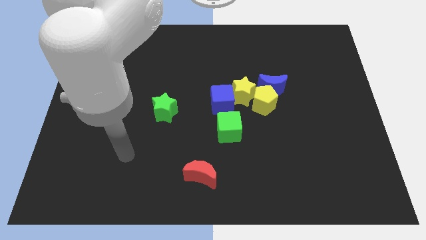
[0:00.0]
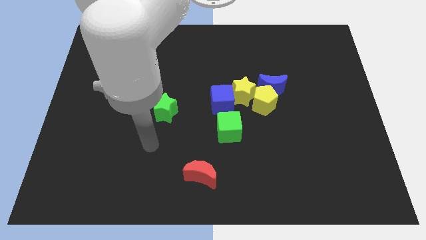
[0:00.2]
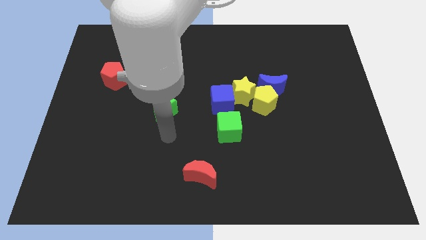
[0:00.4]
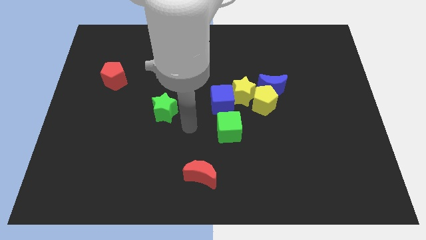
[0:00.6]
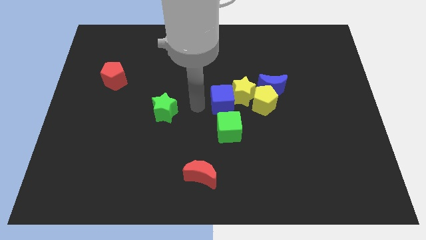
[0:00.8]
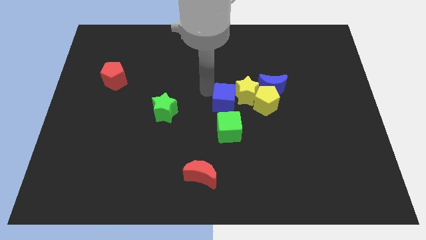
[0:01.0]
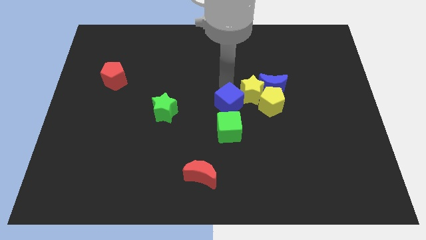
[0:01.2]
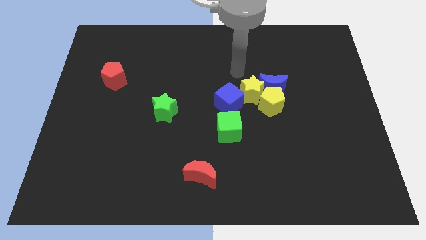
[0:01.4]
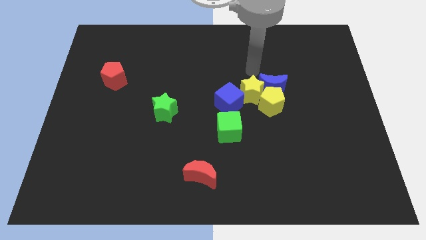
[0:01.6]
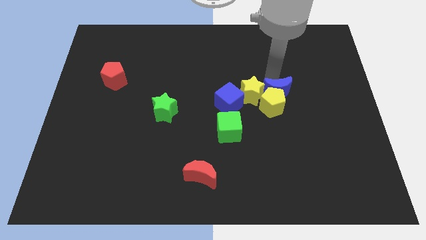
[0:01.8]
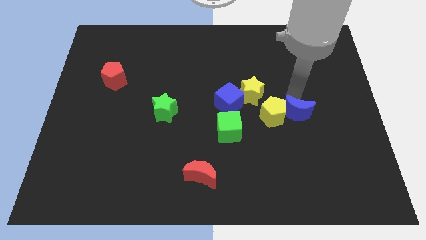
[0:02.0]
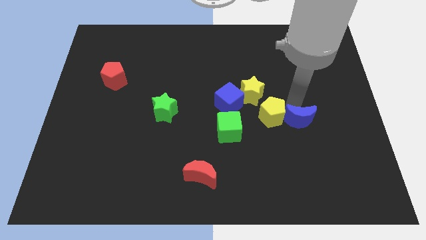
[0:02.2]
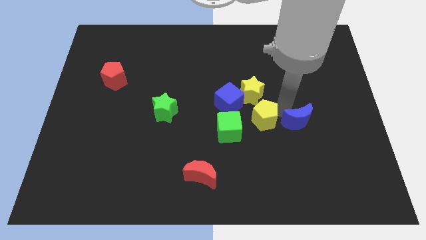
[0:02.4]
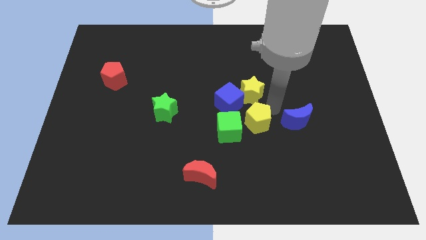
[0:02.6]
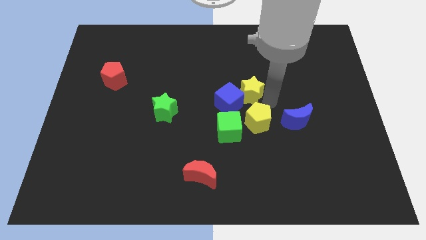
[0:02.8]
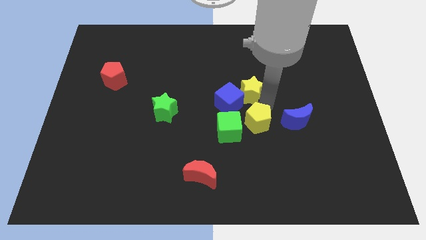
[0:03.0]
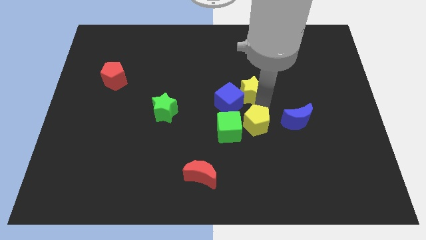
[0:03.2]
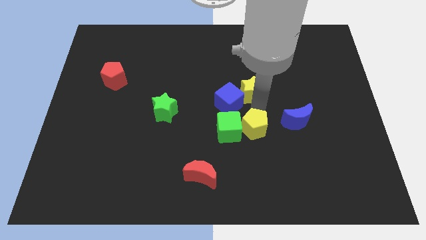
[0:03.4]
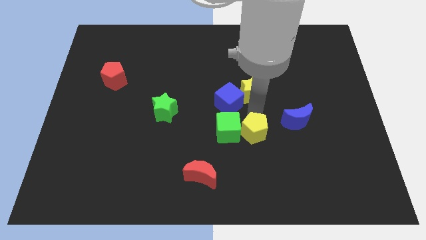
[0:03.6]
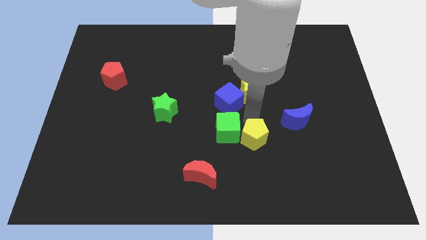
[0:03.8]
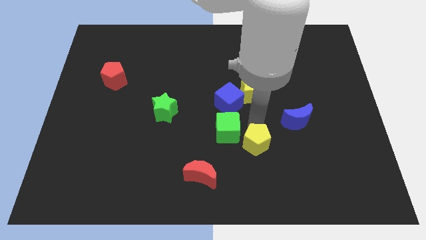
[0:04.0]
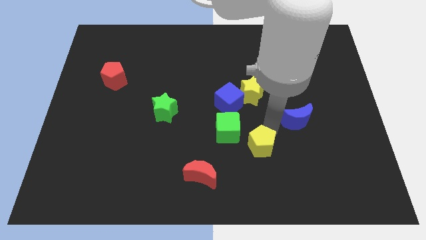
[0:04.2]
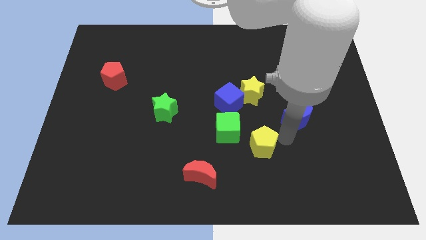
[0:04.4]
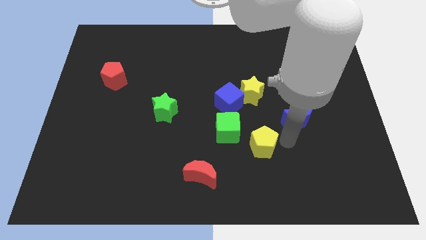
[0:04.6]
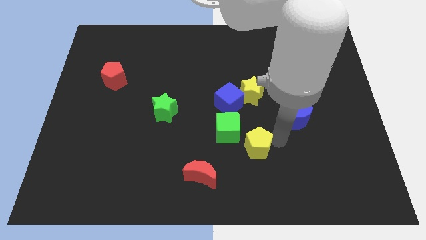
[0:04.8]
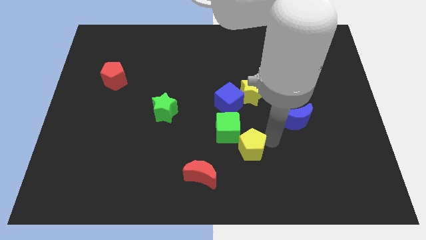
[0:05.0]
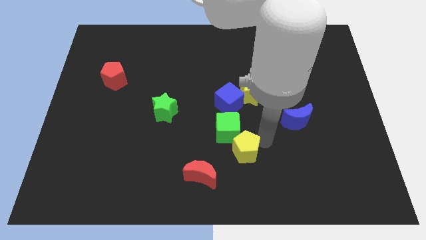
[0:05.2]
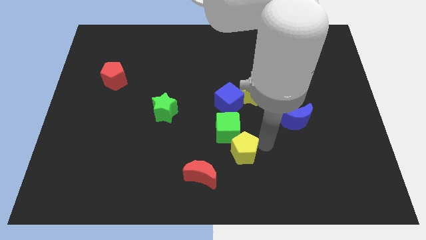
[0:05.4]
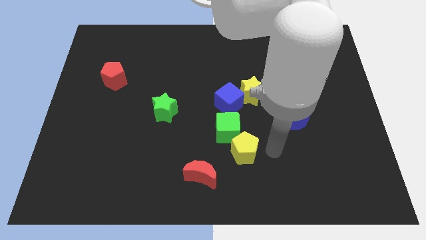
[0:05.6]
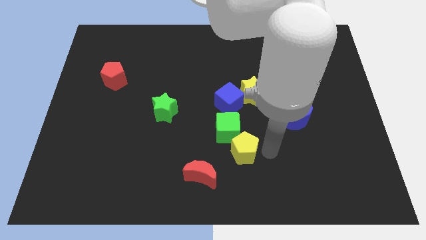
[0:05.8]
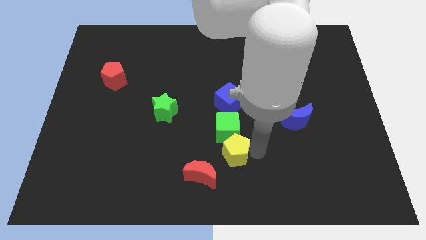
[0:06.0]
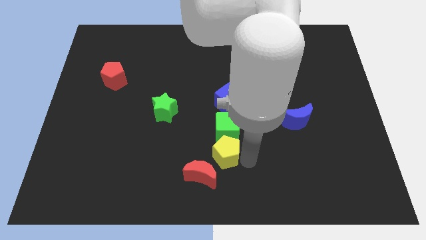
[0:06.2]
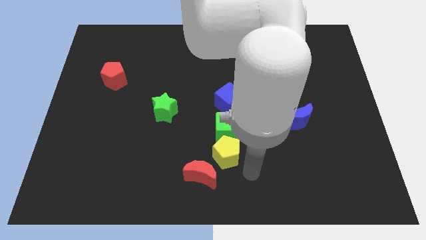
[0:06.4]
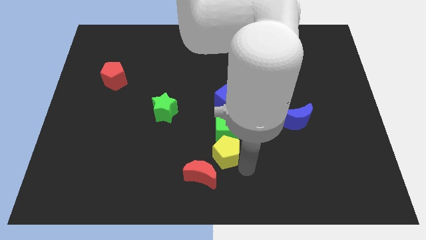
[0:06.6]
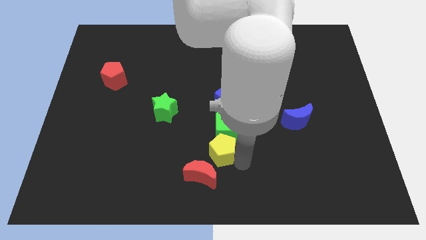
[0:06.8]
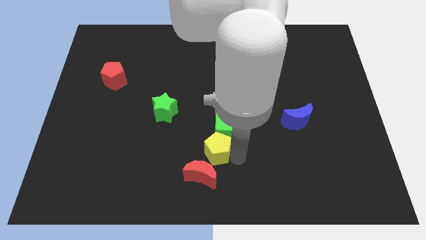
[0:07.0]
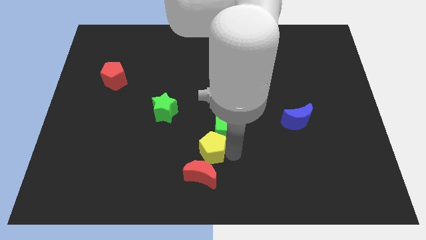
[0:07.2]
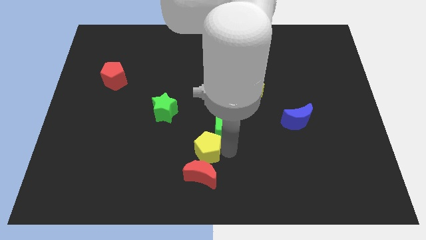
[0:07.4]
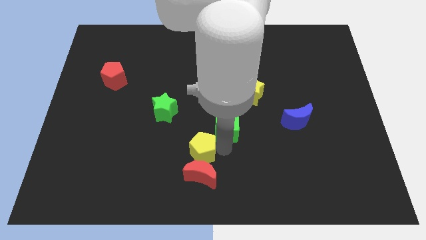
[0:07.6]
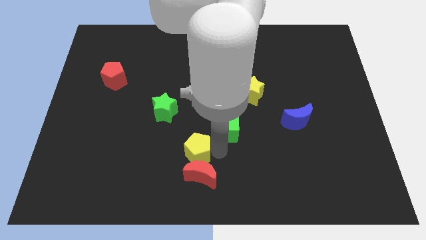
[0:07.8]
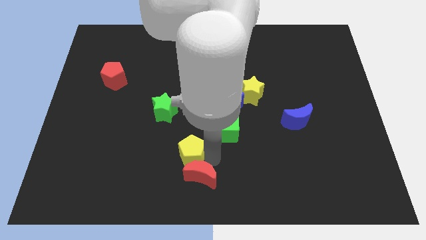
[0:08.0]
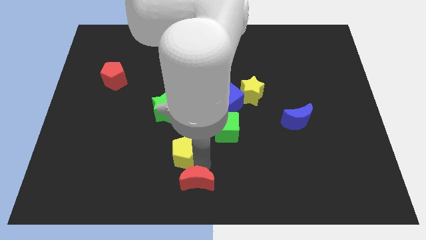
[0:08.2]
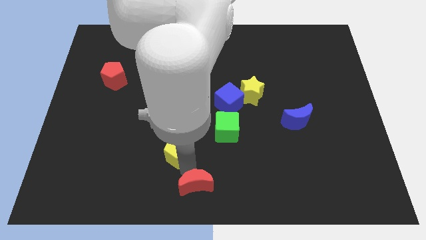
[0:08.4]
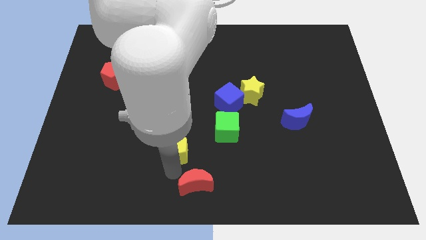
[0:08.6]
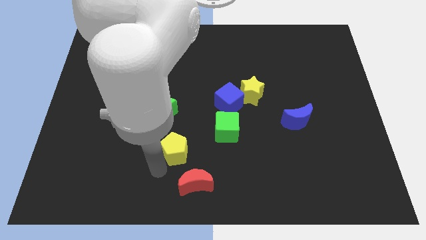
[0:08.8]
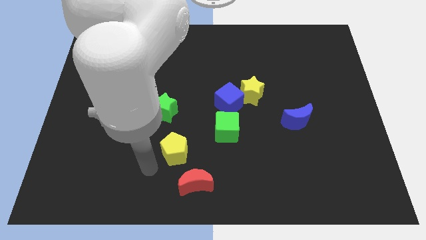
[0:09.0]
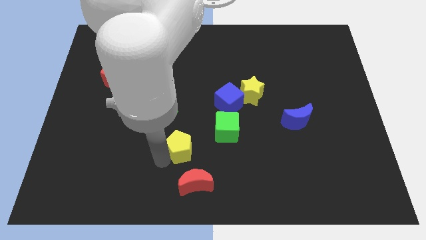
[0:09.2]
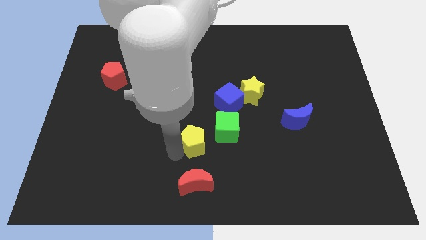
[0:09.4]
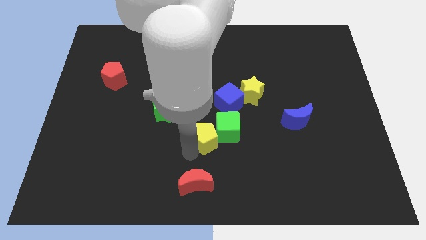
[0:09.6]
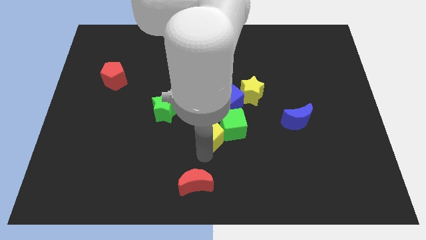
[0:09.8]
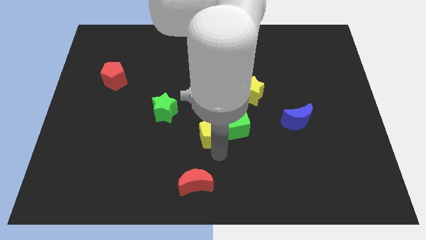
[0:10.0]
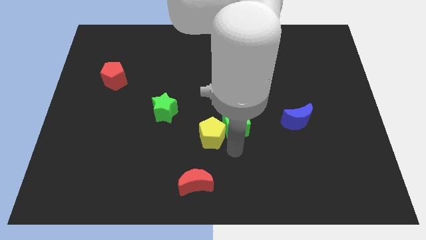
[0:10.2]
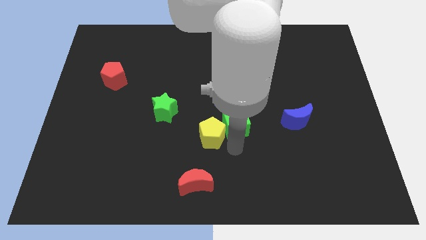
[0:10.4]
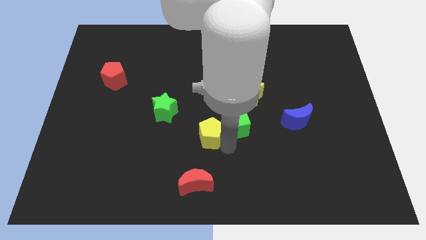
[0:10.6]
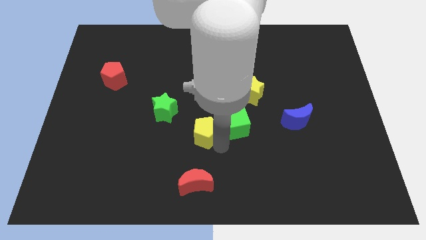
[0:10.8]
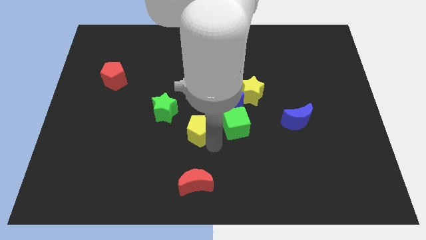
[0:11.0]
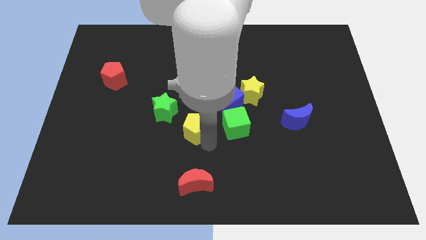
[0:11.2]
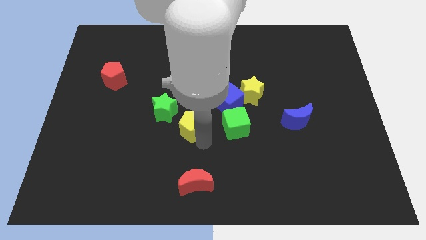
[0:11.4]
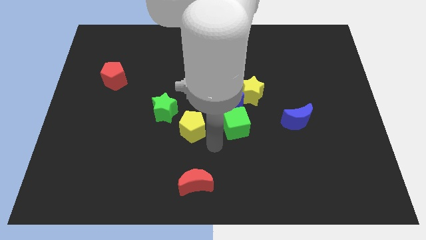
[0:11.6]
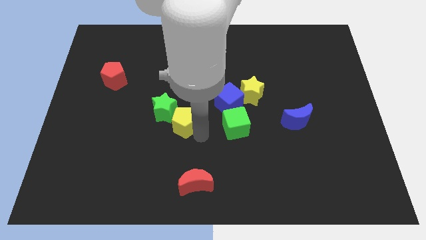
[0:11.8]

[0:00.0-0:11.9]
slide the yellow pentagon to the green star
